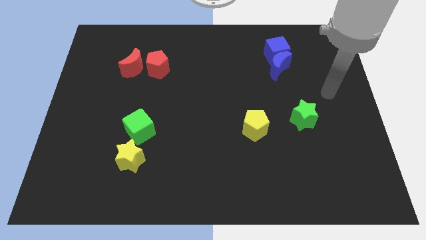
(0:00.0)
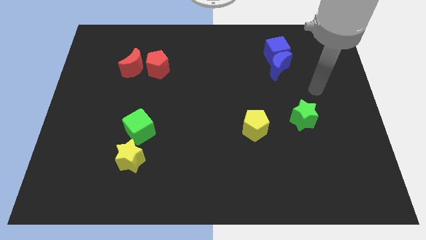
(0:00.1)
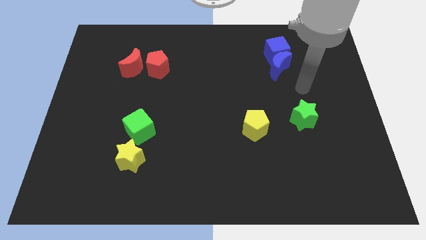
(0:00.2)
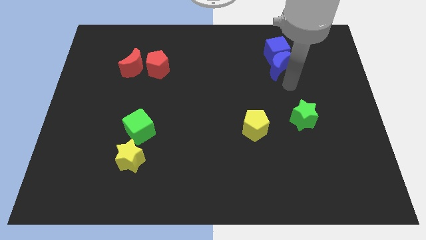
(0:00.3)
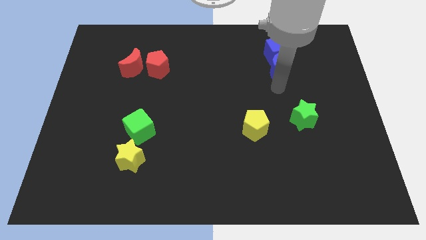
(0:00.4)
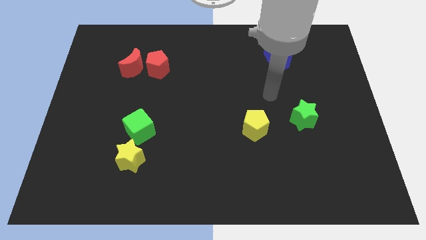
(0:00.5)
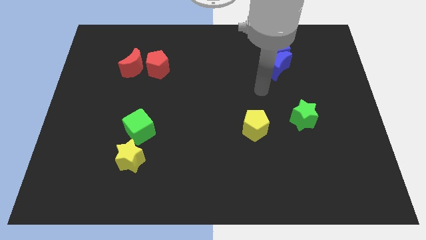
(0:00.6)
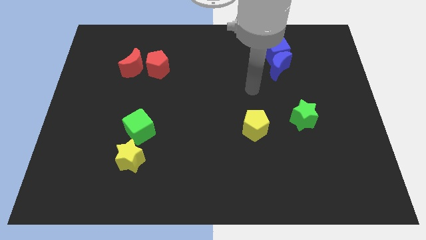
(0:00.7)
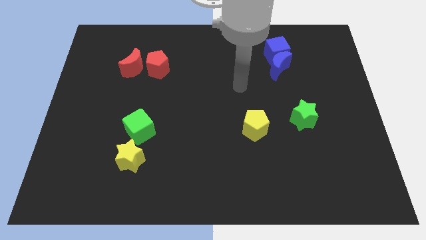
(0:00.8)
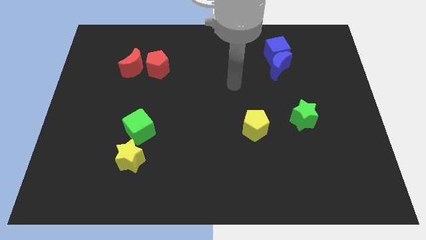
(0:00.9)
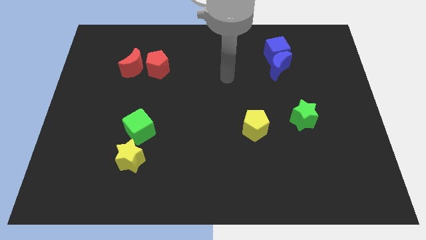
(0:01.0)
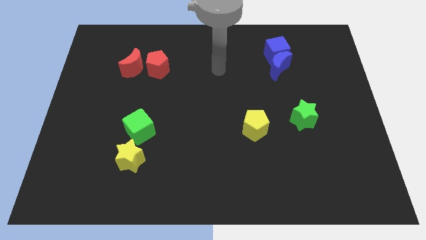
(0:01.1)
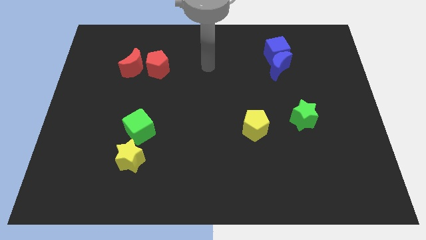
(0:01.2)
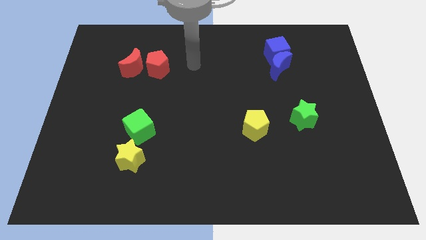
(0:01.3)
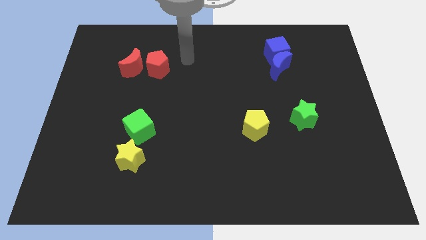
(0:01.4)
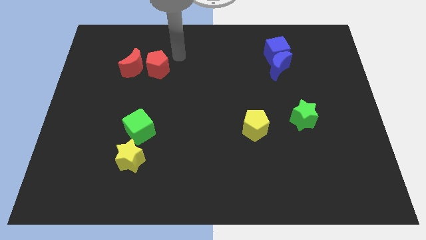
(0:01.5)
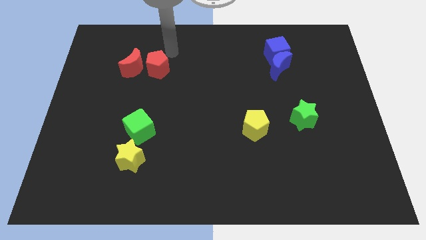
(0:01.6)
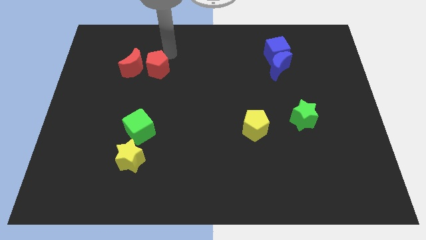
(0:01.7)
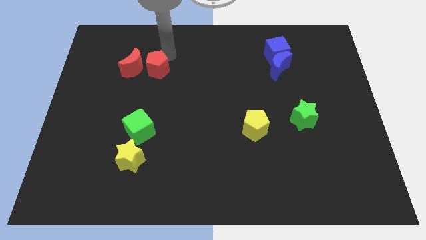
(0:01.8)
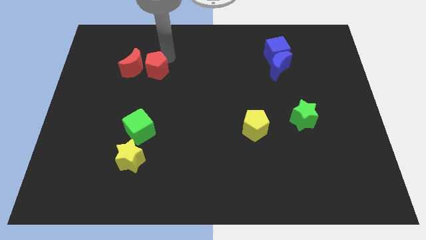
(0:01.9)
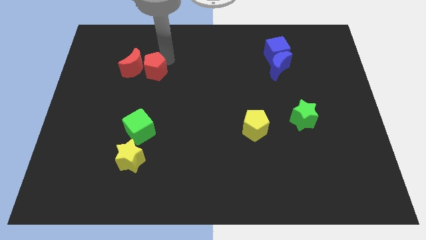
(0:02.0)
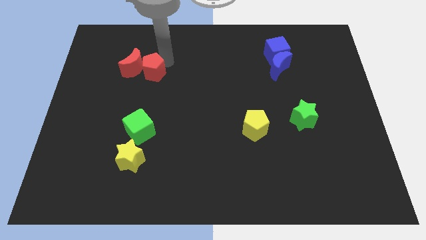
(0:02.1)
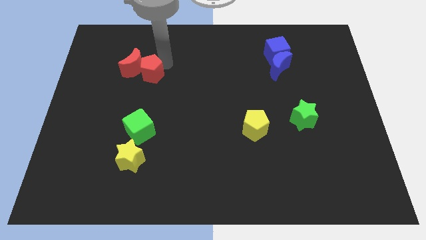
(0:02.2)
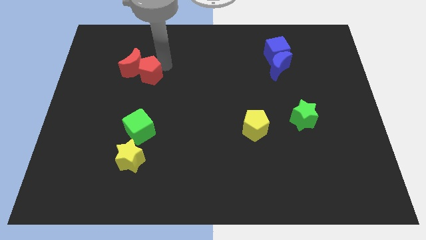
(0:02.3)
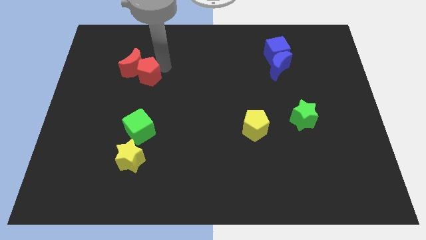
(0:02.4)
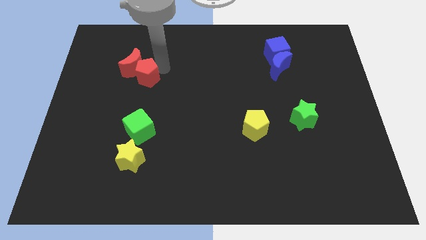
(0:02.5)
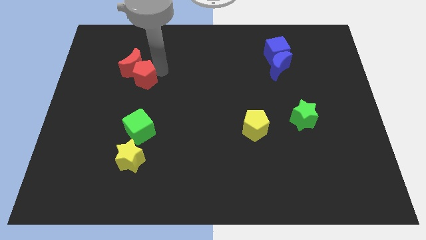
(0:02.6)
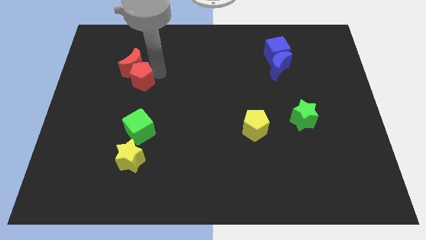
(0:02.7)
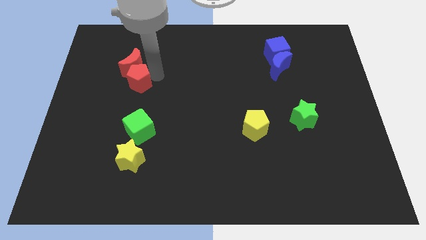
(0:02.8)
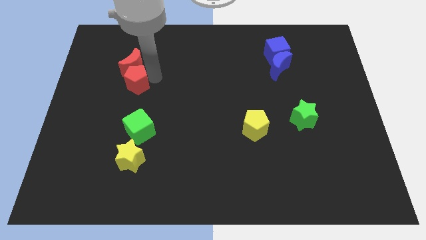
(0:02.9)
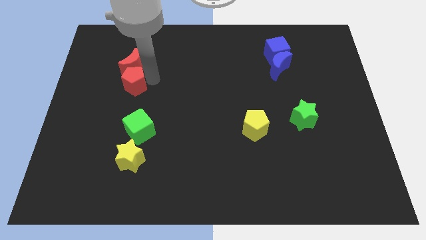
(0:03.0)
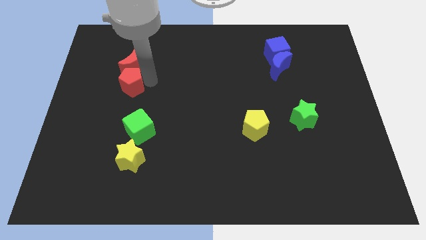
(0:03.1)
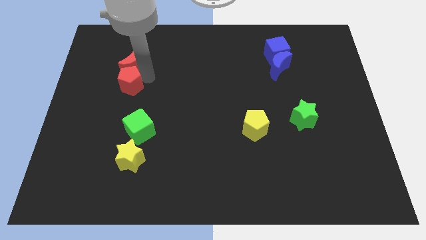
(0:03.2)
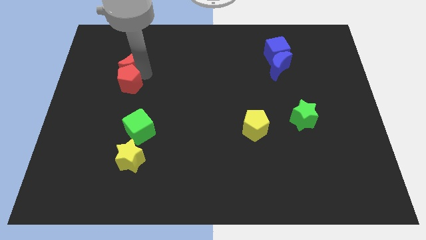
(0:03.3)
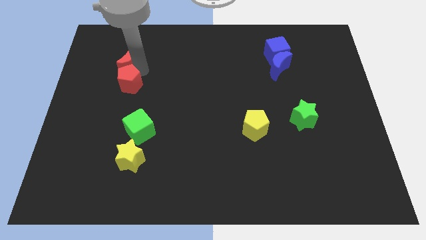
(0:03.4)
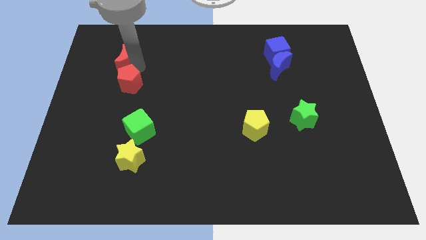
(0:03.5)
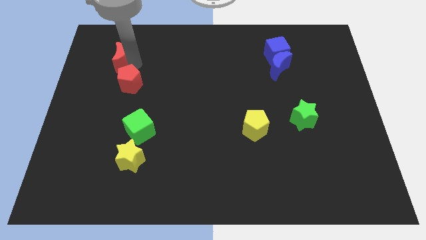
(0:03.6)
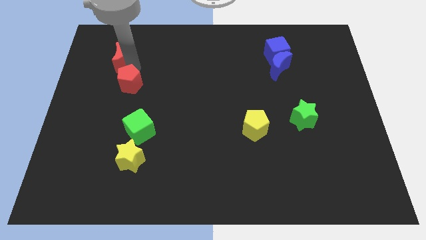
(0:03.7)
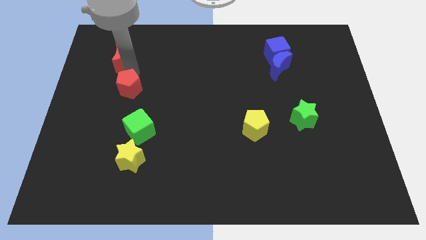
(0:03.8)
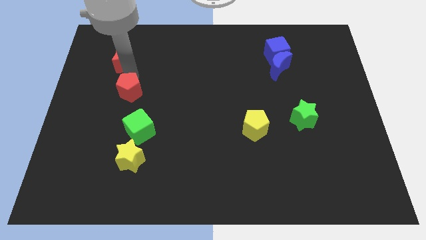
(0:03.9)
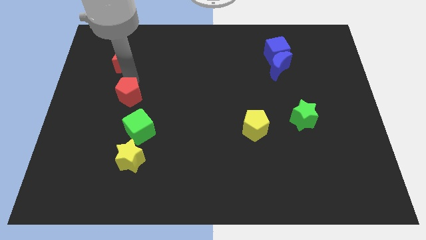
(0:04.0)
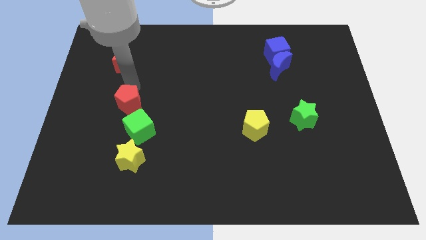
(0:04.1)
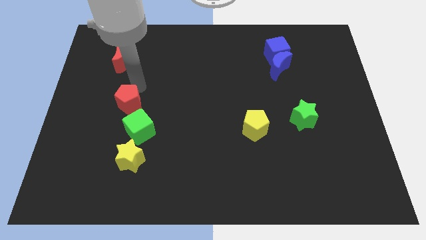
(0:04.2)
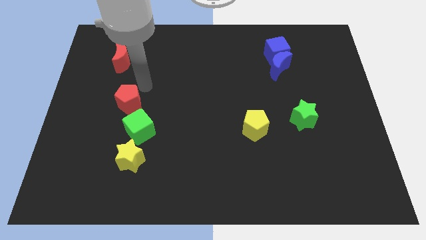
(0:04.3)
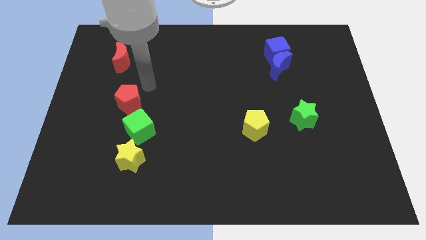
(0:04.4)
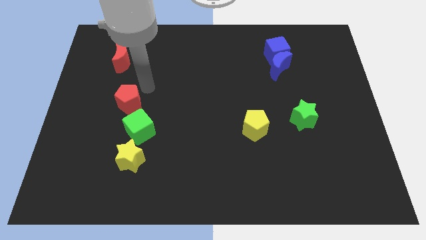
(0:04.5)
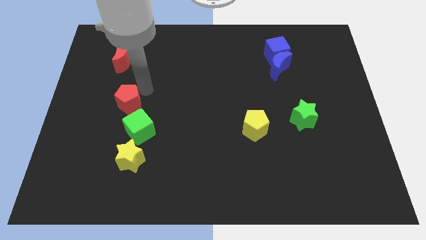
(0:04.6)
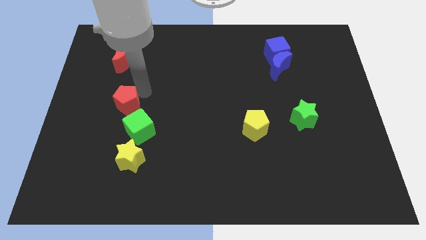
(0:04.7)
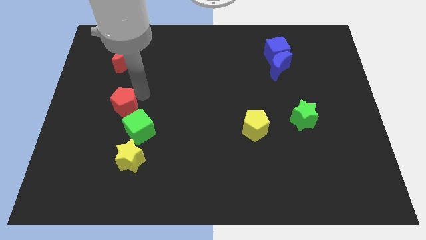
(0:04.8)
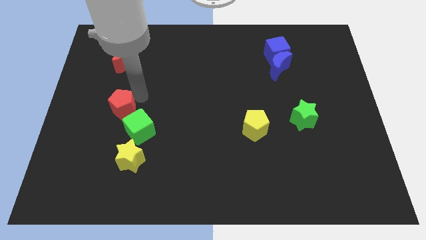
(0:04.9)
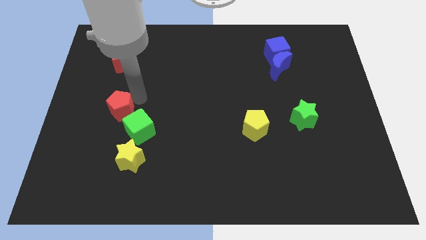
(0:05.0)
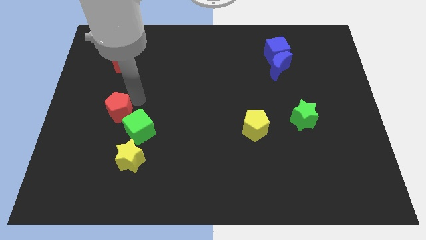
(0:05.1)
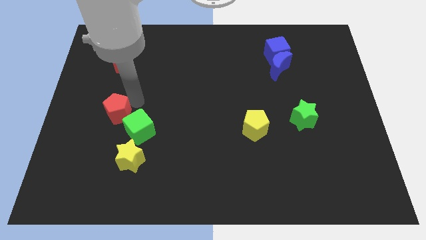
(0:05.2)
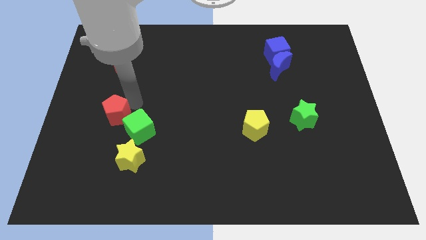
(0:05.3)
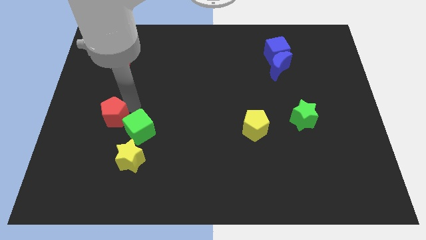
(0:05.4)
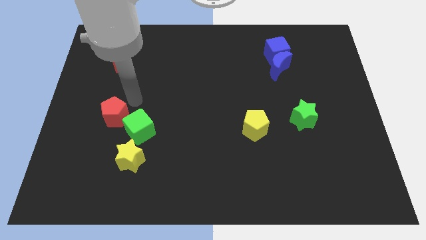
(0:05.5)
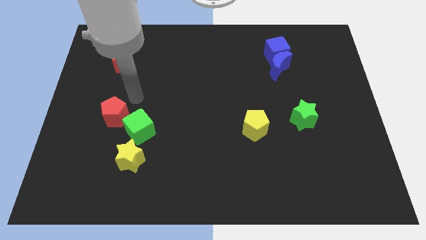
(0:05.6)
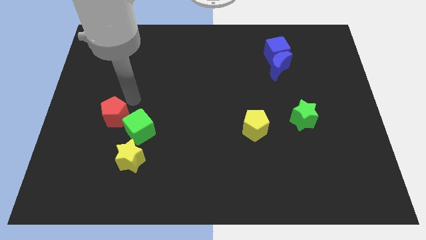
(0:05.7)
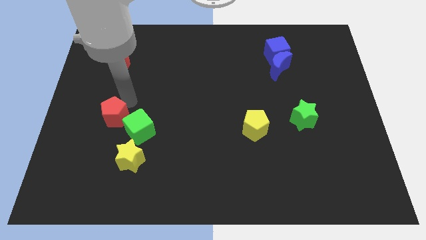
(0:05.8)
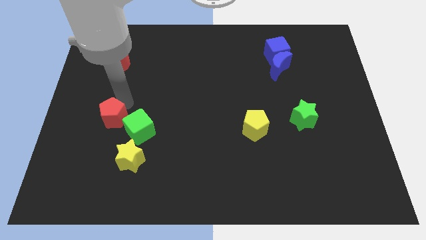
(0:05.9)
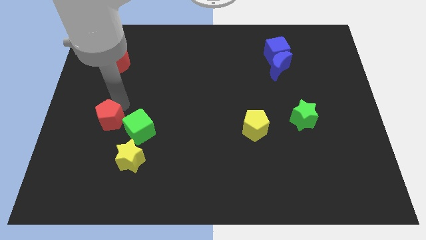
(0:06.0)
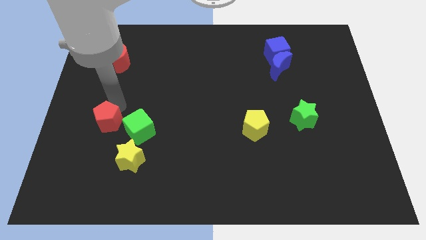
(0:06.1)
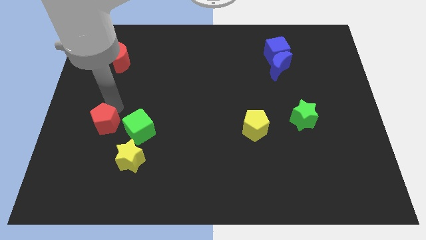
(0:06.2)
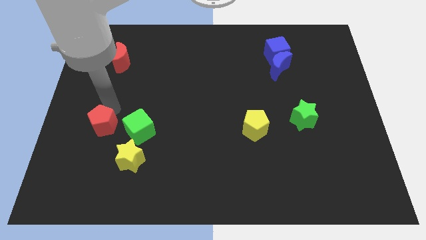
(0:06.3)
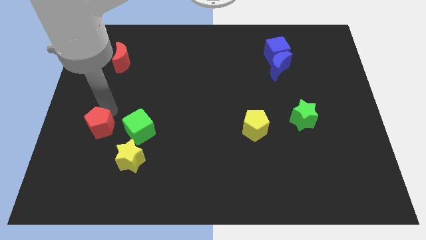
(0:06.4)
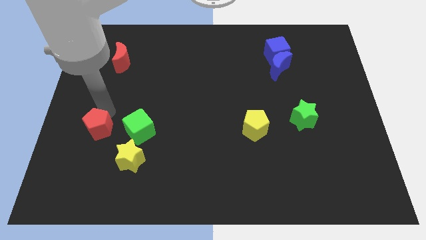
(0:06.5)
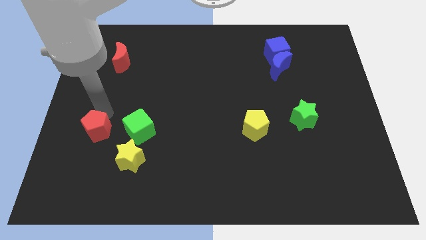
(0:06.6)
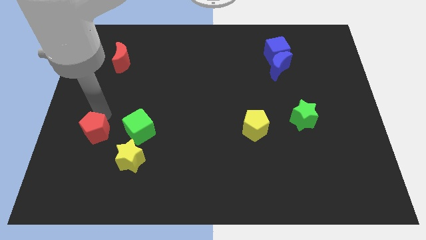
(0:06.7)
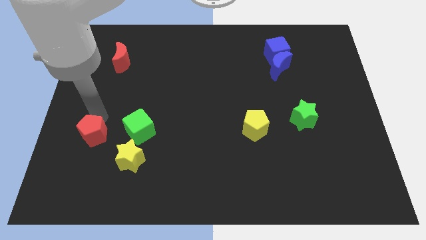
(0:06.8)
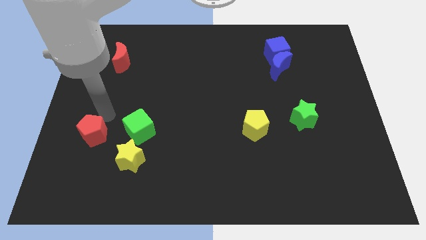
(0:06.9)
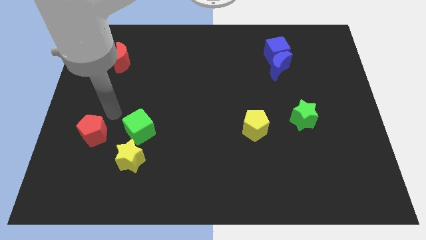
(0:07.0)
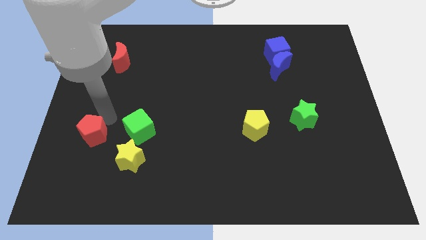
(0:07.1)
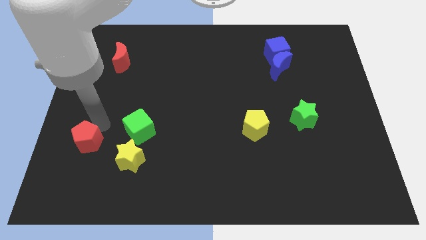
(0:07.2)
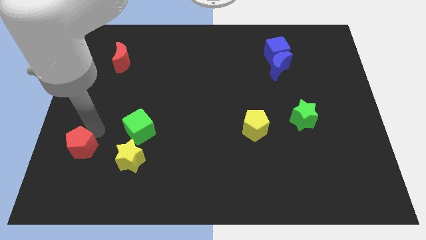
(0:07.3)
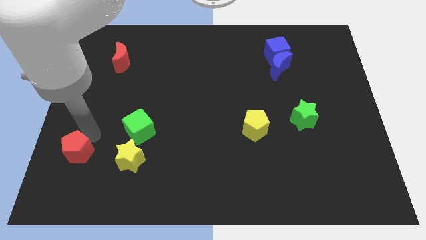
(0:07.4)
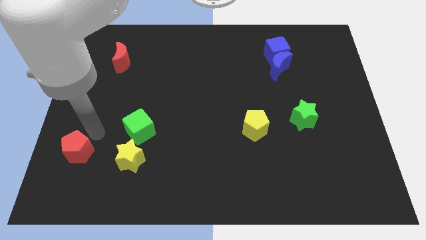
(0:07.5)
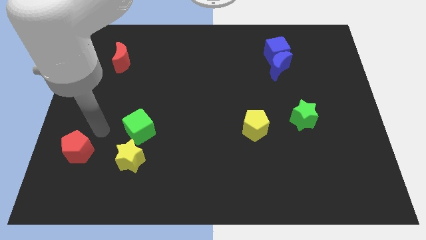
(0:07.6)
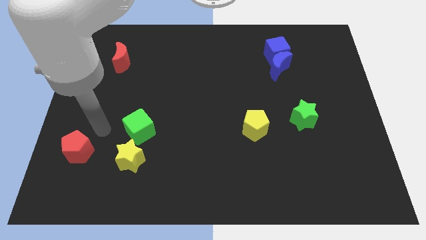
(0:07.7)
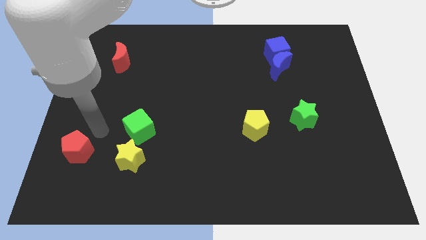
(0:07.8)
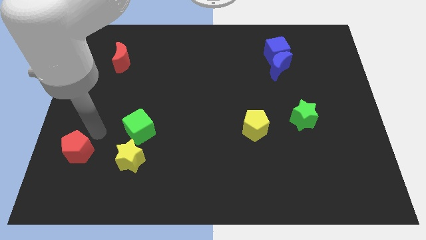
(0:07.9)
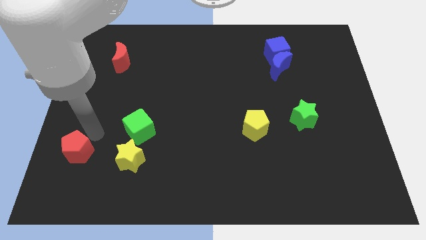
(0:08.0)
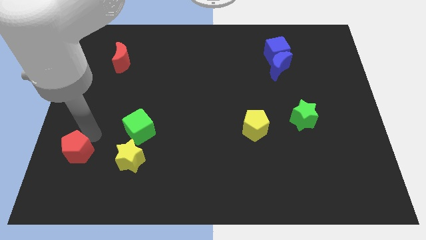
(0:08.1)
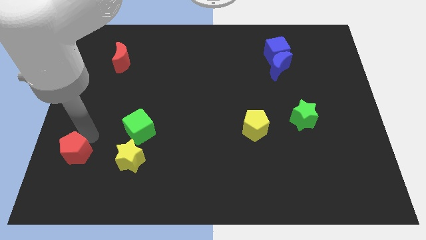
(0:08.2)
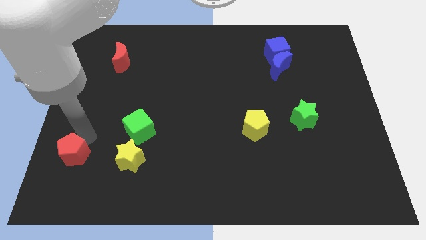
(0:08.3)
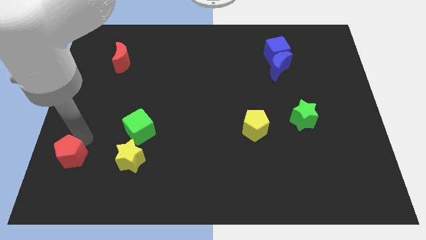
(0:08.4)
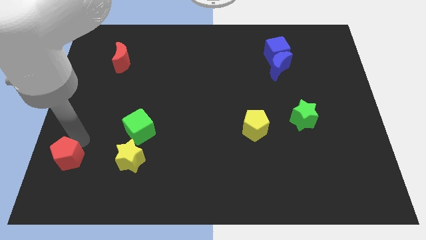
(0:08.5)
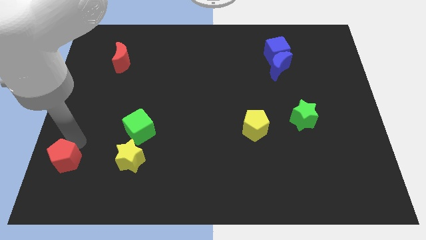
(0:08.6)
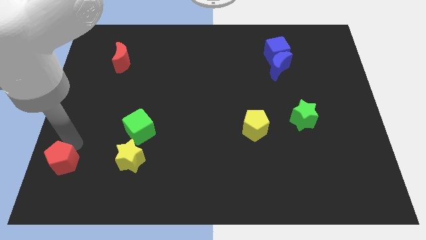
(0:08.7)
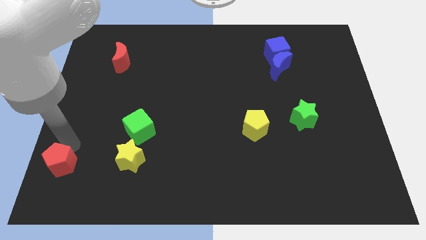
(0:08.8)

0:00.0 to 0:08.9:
push the red pentagon to the bottom left corner
